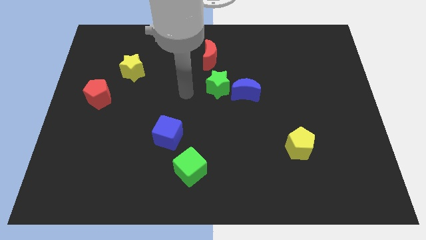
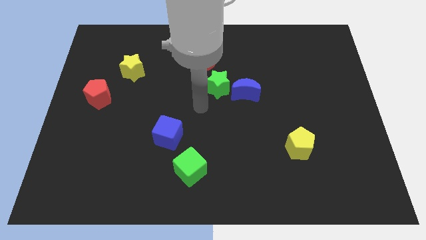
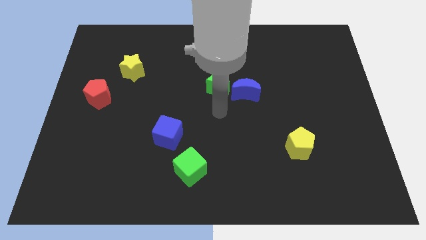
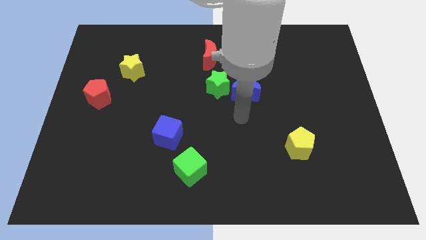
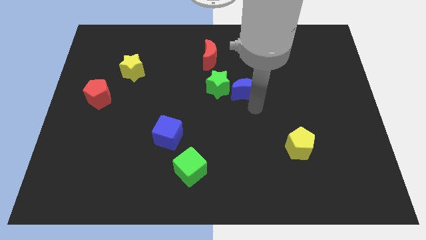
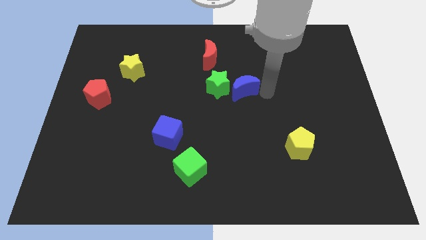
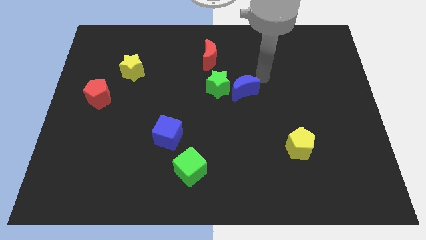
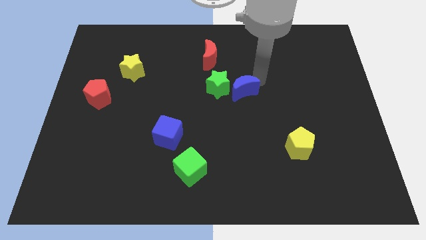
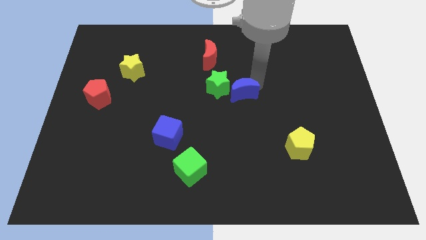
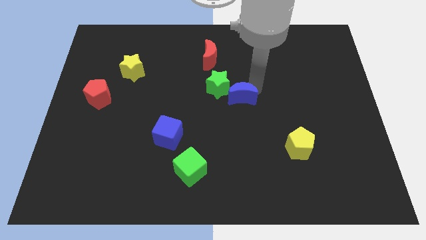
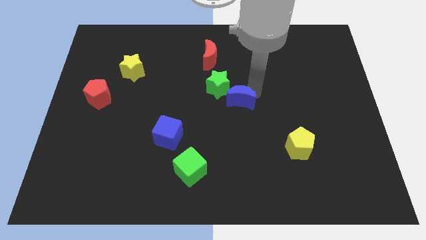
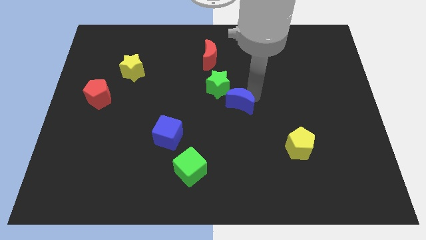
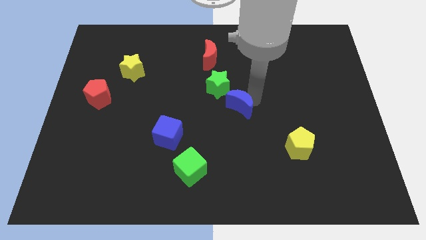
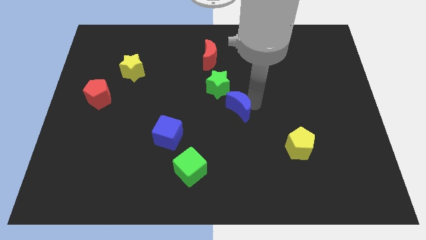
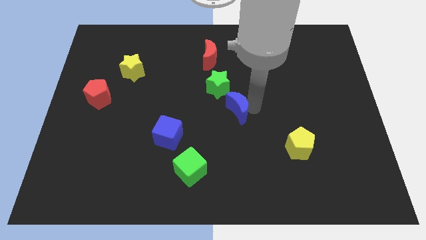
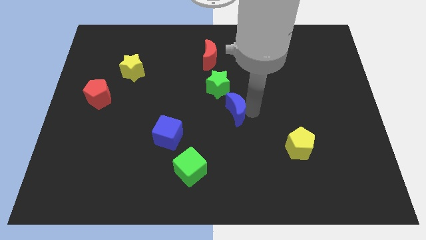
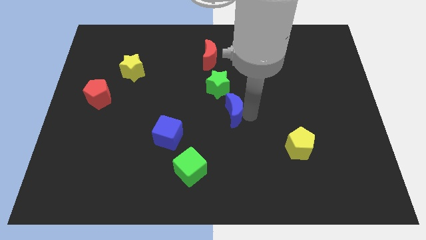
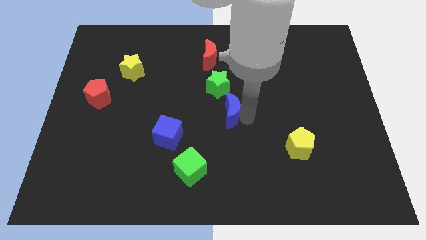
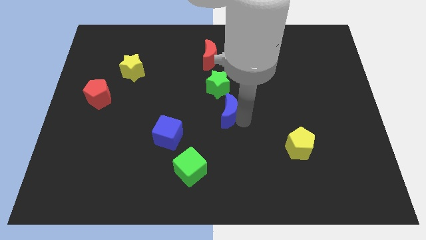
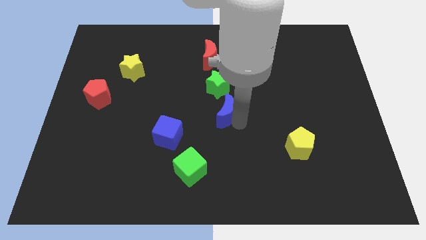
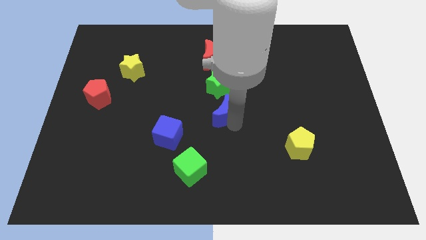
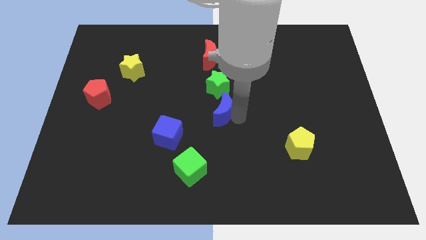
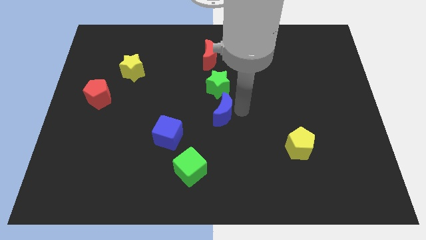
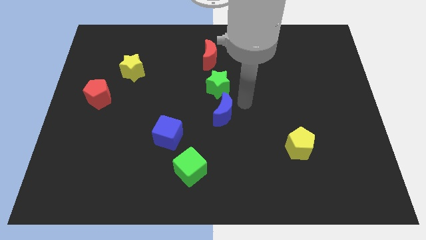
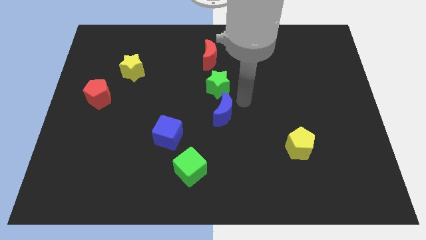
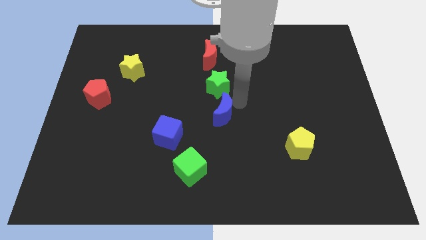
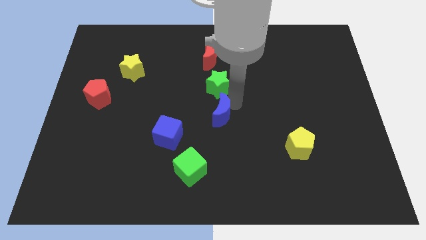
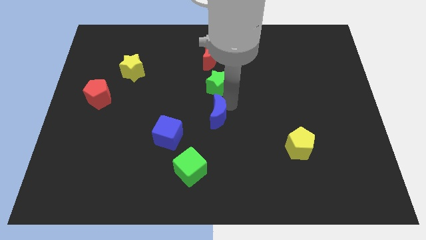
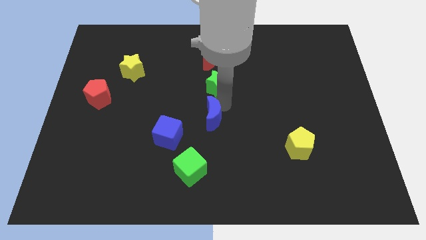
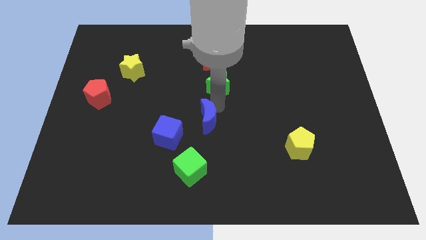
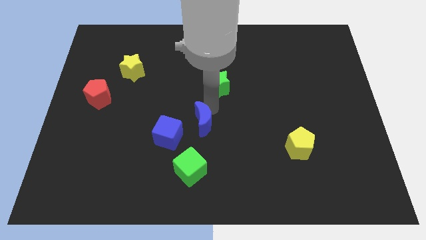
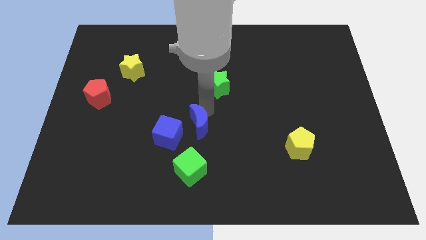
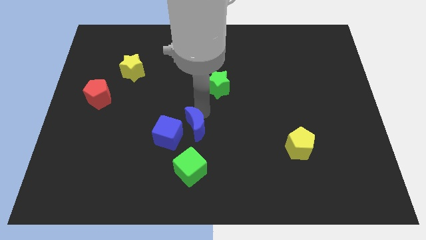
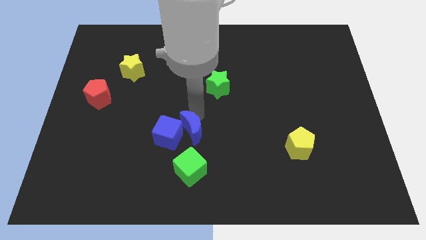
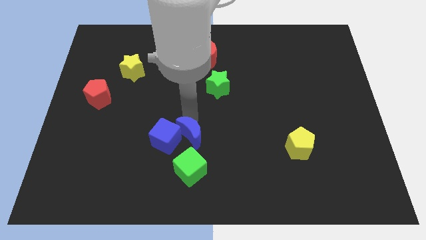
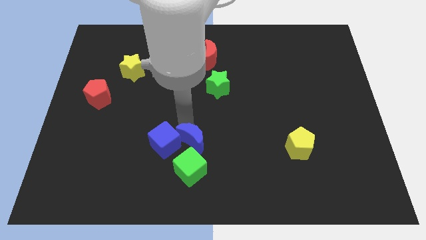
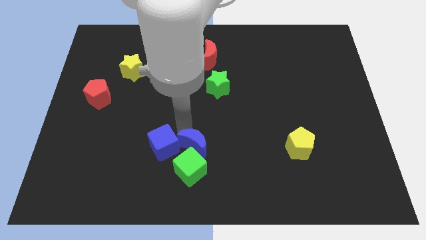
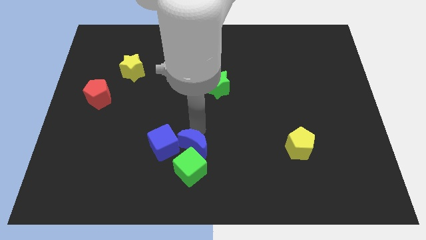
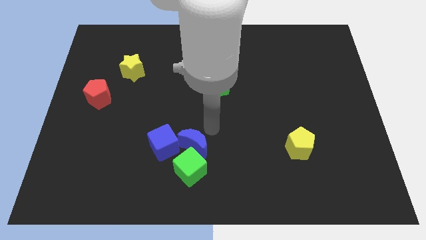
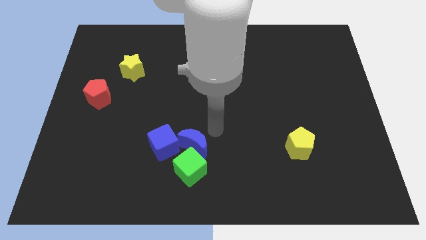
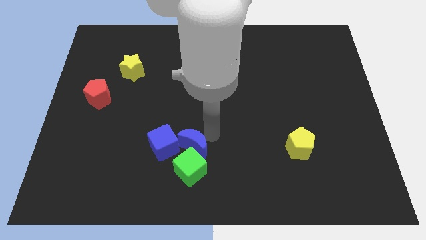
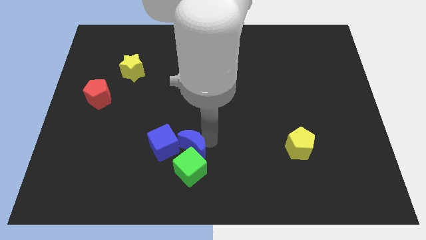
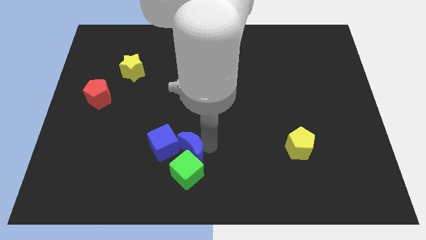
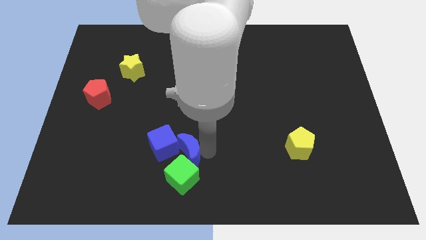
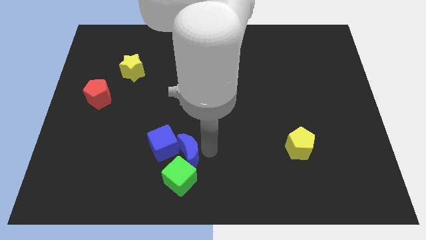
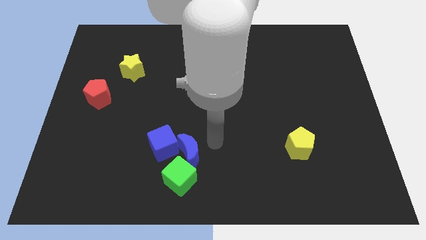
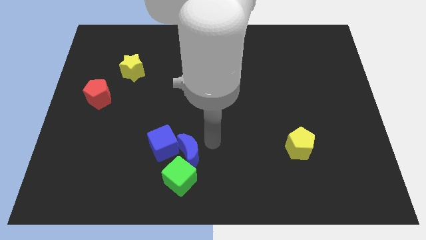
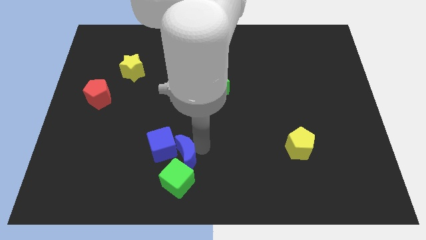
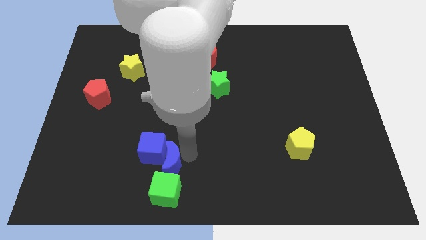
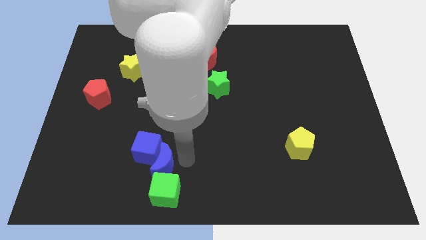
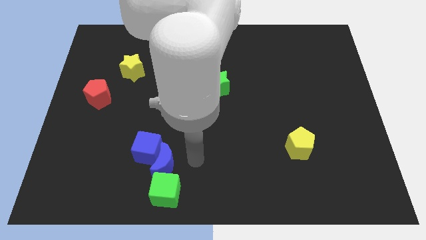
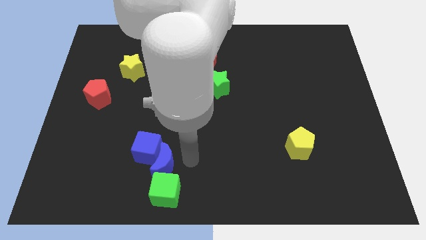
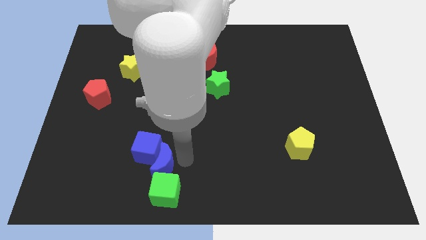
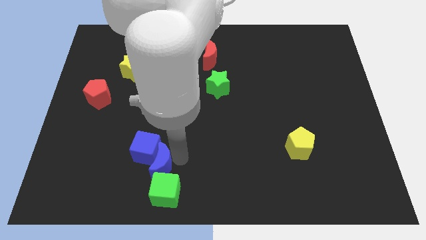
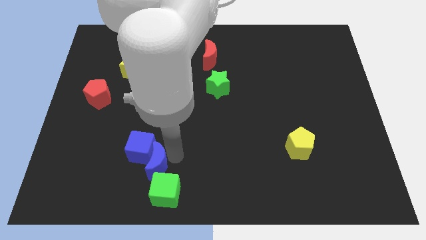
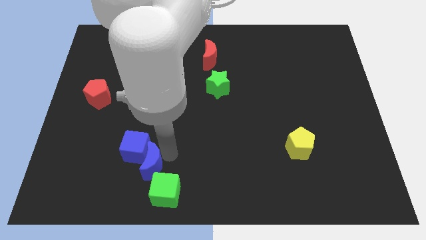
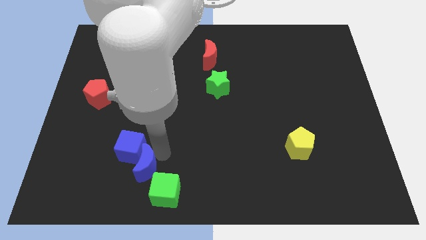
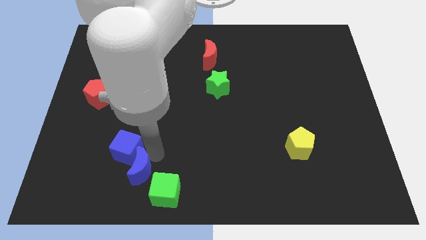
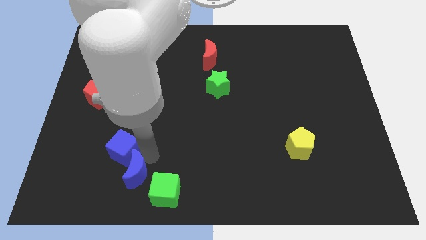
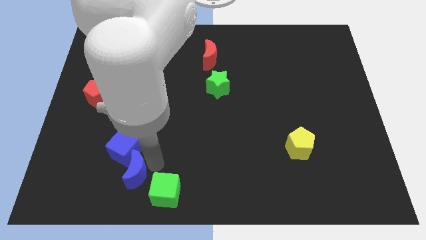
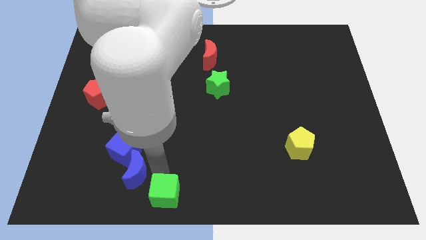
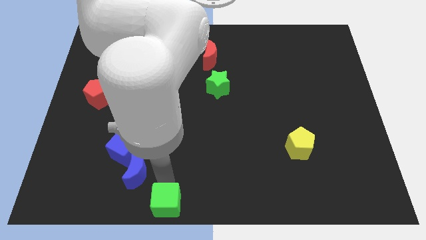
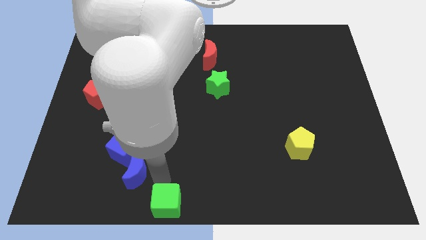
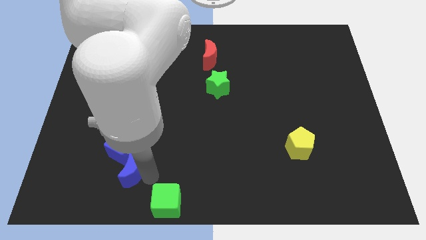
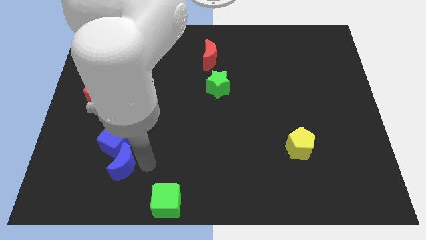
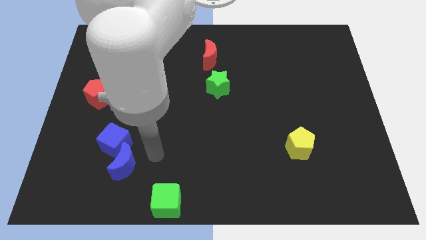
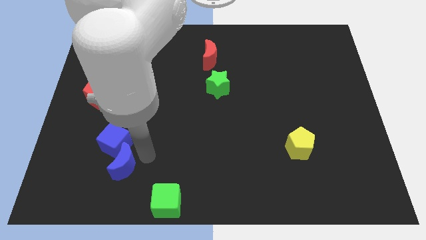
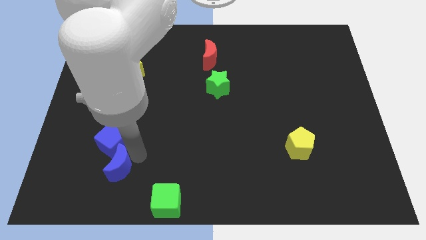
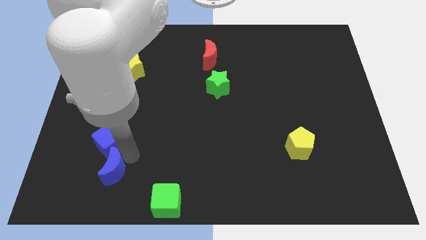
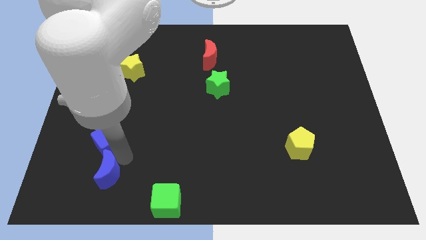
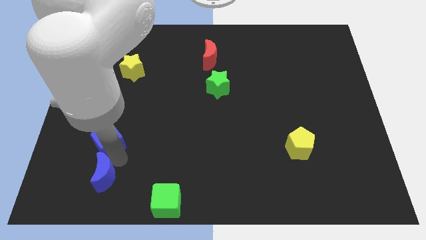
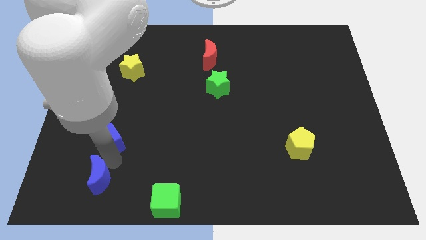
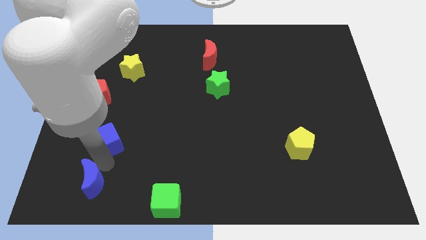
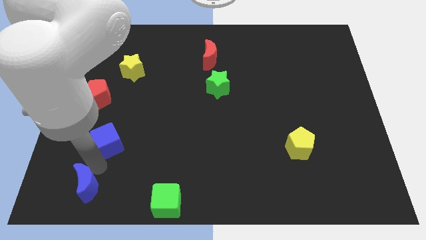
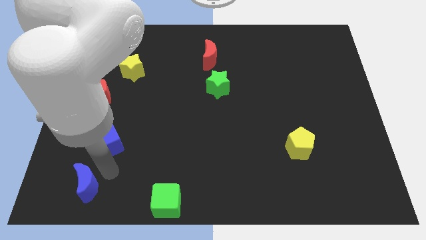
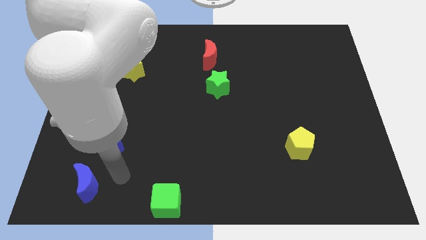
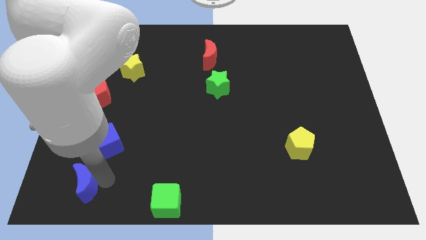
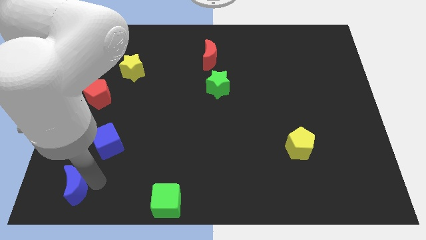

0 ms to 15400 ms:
move the blue moon to the bottom left corner

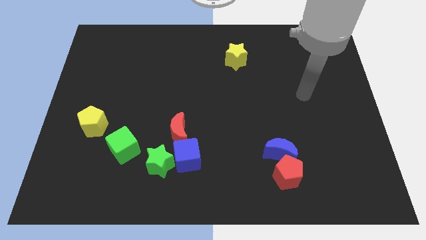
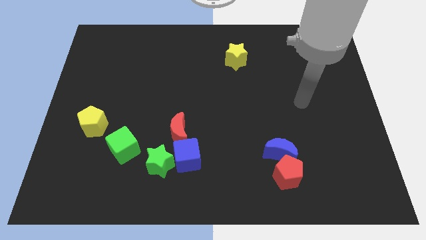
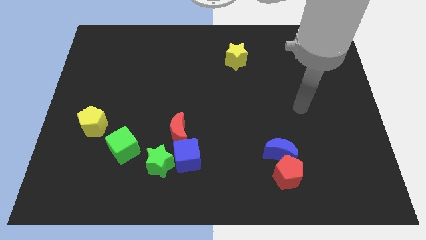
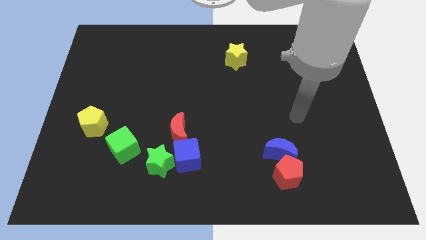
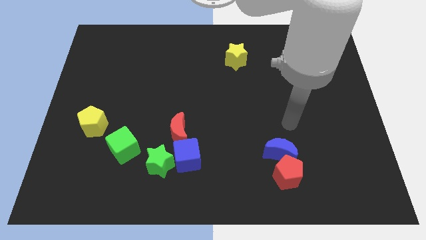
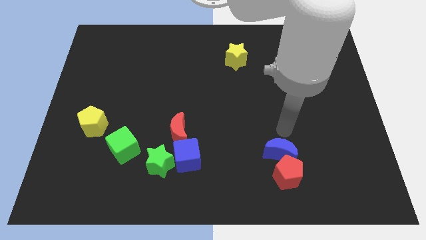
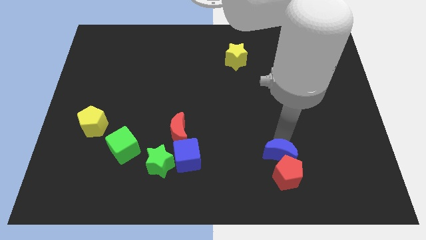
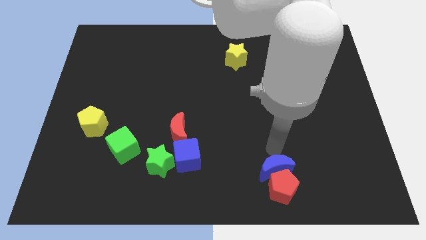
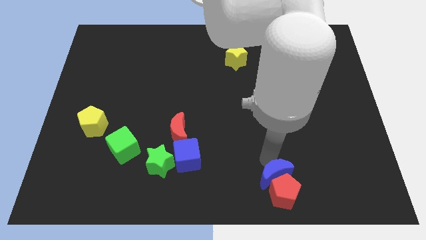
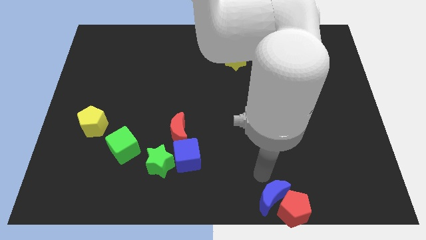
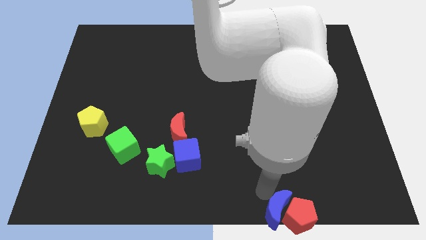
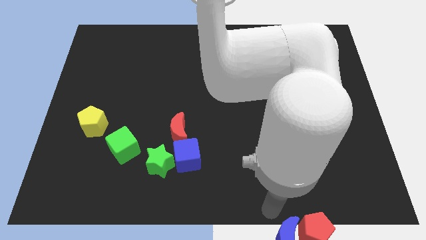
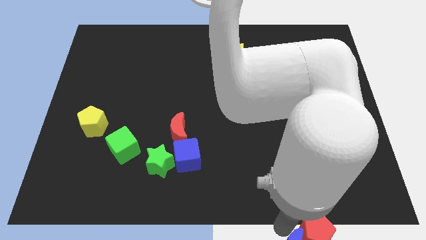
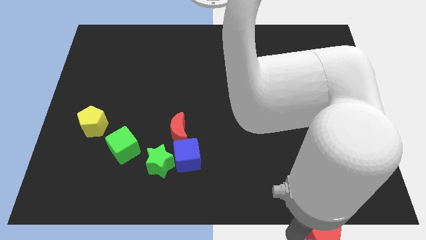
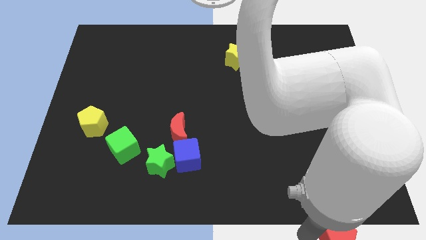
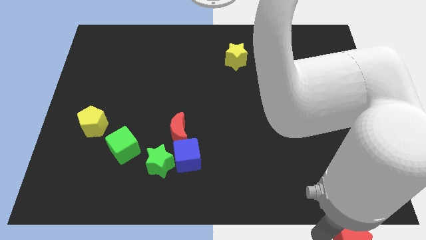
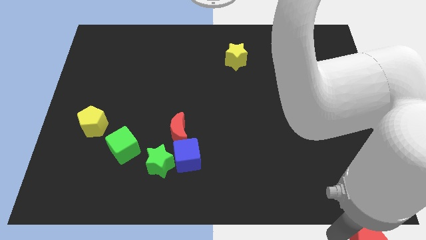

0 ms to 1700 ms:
push the red pentagon to the bottom right of the board
